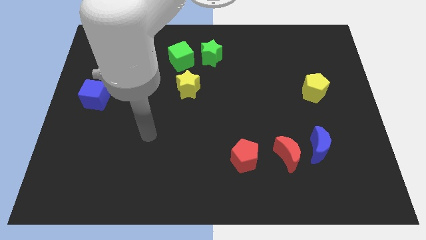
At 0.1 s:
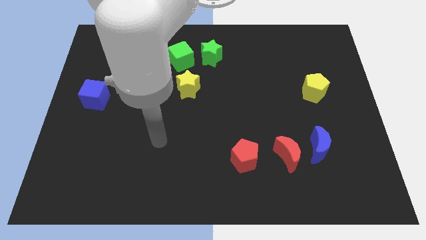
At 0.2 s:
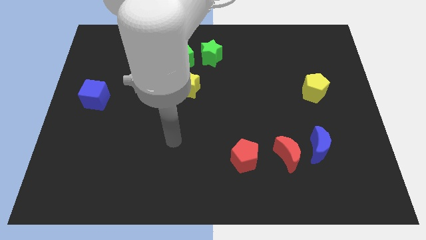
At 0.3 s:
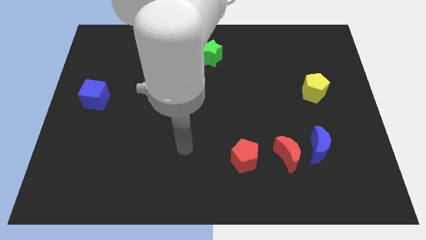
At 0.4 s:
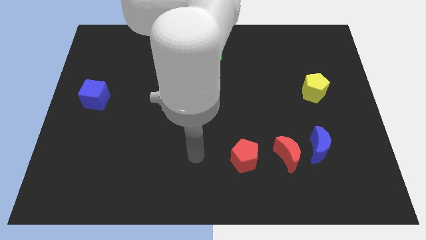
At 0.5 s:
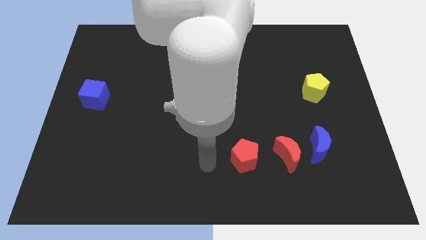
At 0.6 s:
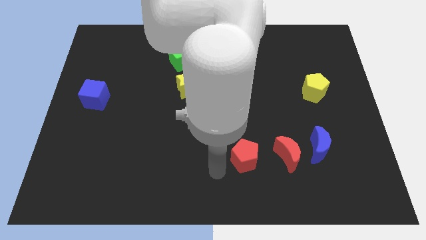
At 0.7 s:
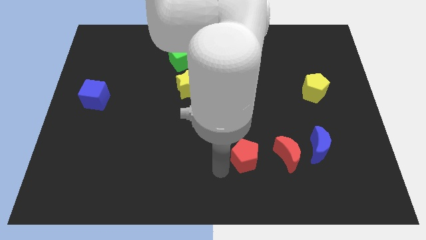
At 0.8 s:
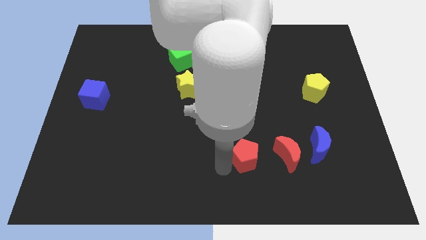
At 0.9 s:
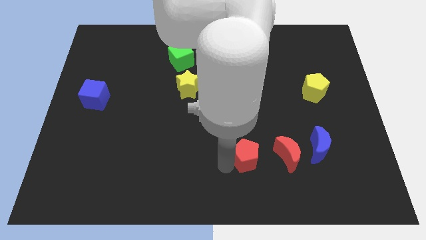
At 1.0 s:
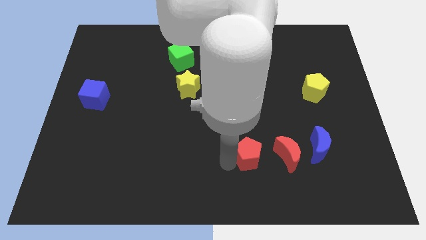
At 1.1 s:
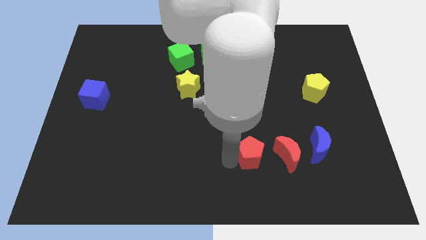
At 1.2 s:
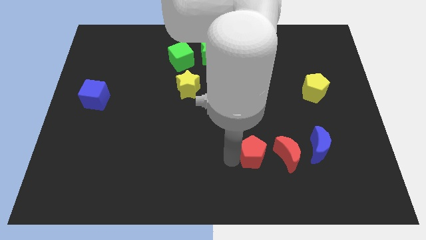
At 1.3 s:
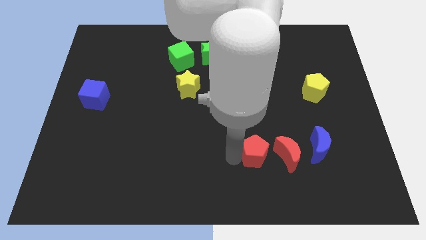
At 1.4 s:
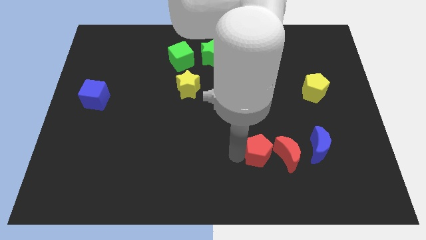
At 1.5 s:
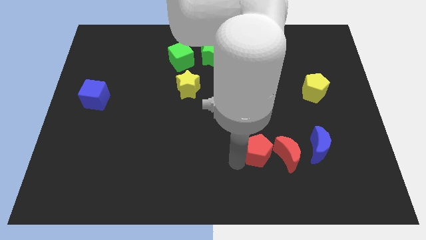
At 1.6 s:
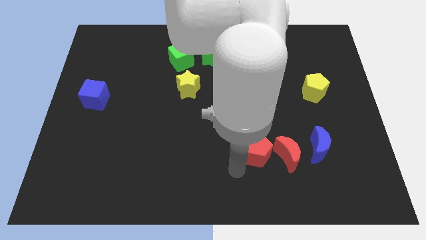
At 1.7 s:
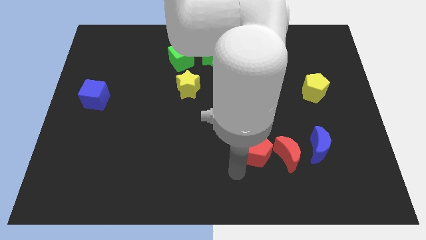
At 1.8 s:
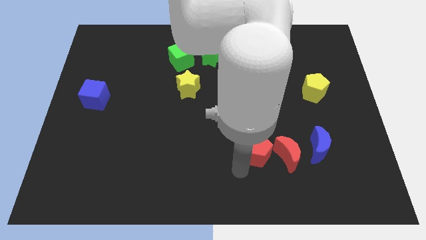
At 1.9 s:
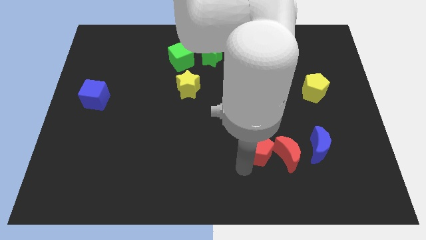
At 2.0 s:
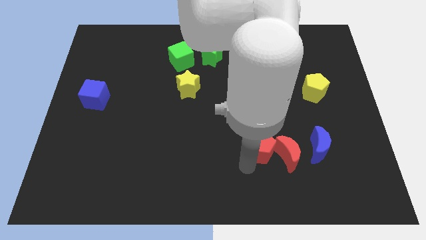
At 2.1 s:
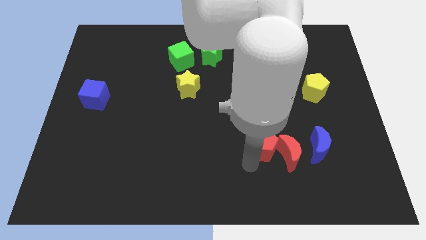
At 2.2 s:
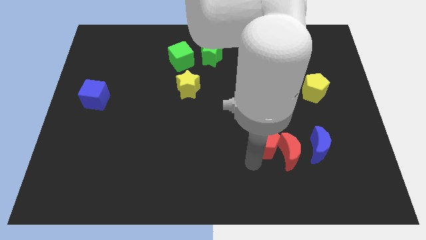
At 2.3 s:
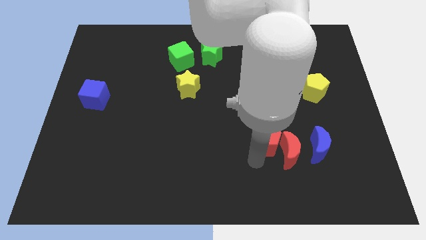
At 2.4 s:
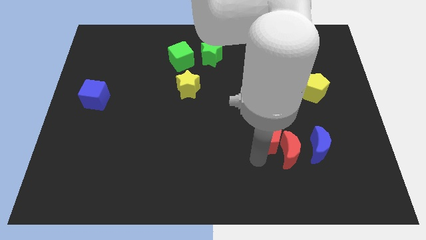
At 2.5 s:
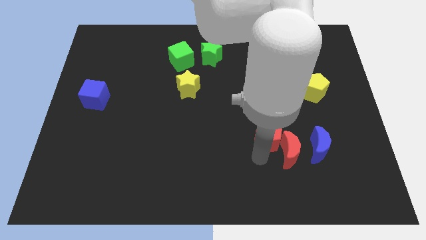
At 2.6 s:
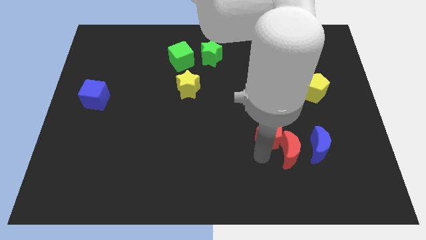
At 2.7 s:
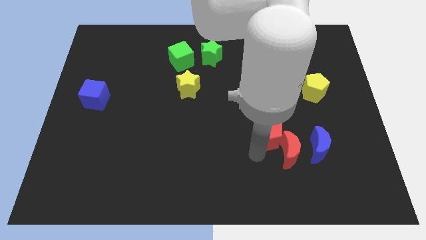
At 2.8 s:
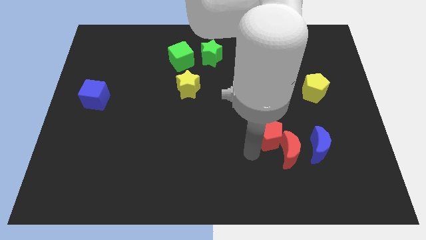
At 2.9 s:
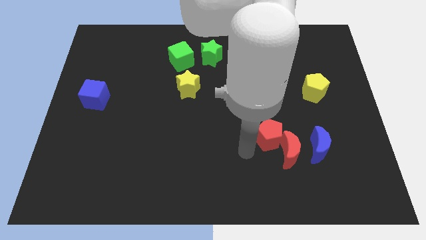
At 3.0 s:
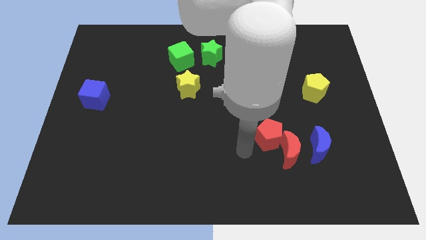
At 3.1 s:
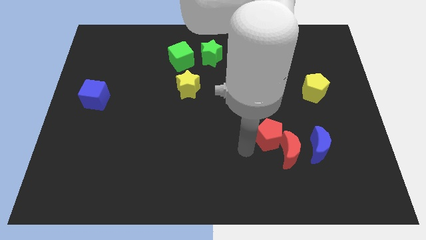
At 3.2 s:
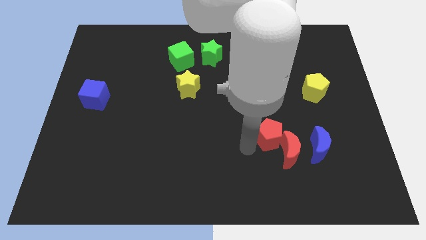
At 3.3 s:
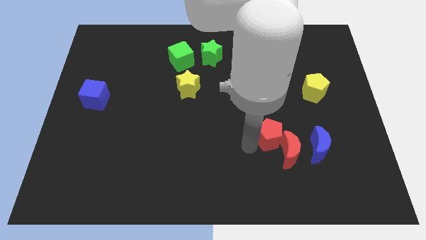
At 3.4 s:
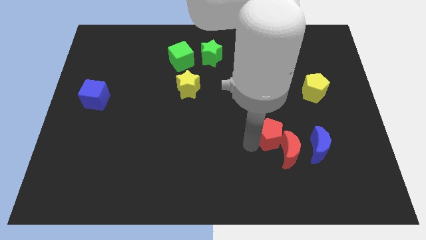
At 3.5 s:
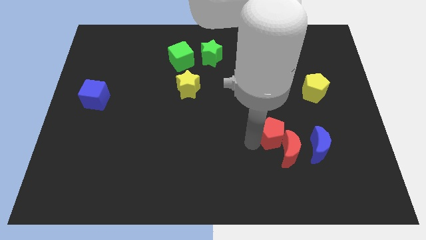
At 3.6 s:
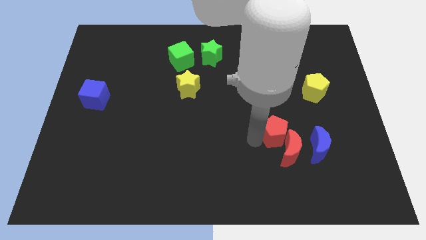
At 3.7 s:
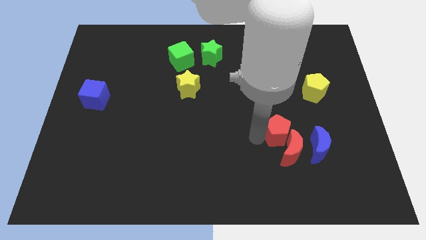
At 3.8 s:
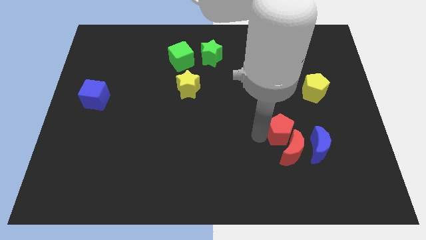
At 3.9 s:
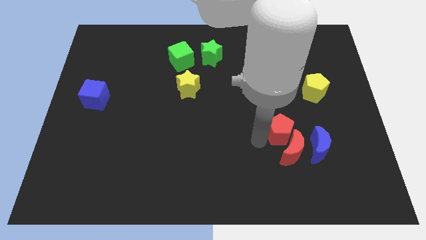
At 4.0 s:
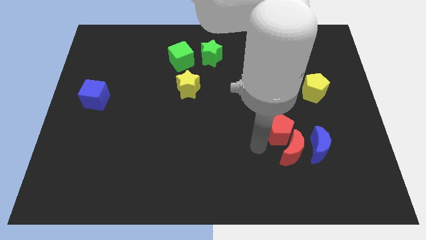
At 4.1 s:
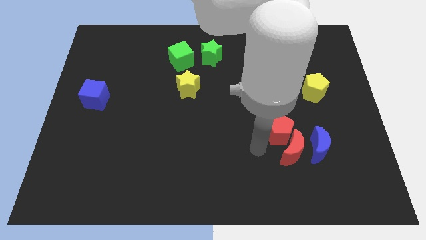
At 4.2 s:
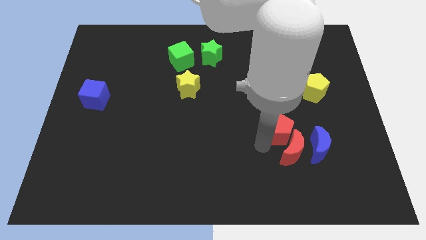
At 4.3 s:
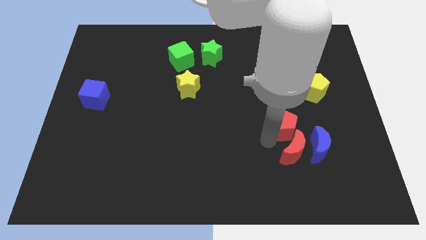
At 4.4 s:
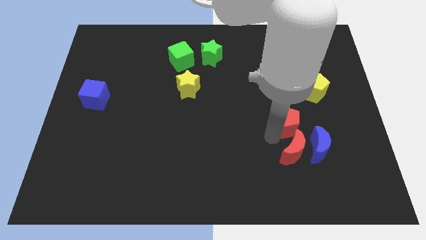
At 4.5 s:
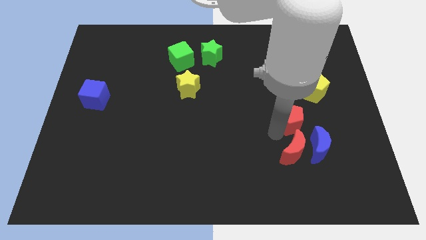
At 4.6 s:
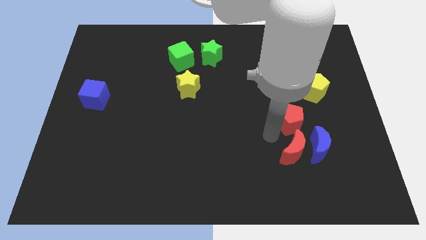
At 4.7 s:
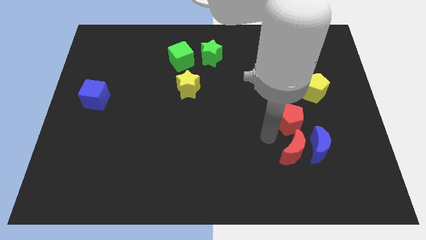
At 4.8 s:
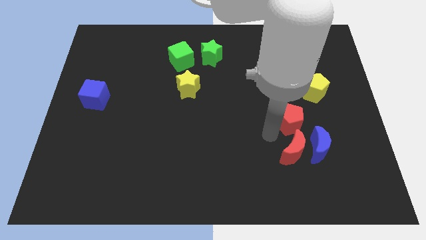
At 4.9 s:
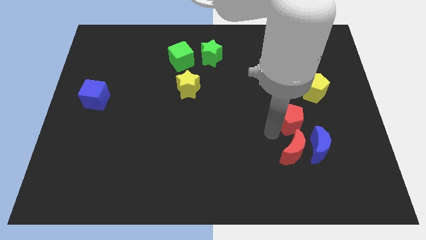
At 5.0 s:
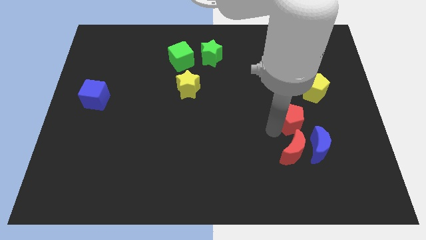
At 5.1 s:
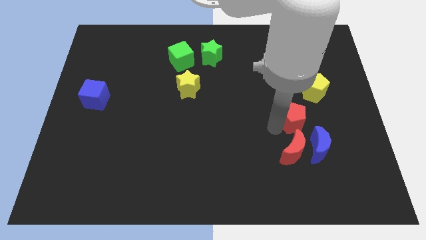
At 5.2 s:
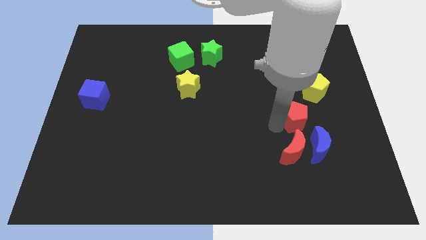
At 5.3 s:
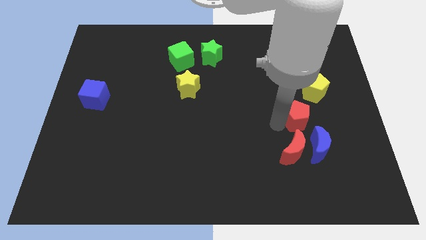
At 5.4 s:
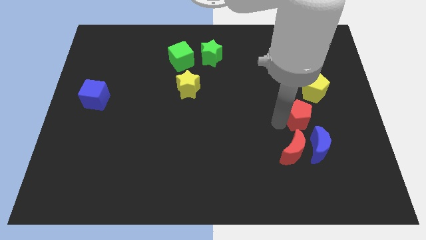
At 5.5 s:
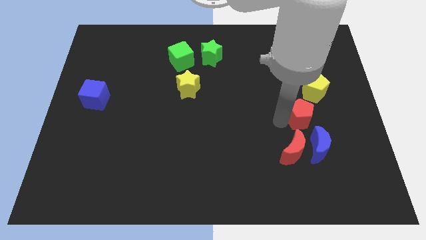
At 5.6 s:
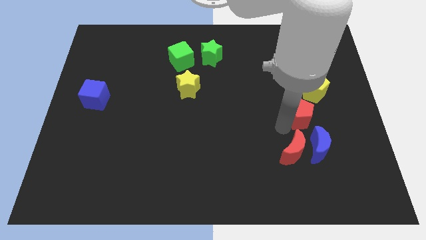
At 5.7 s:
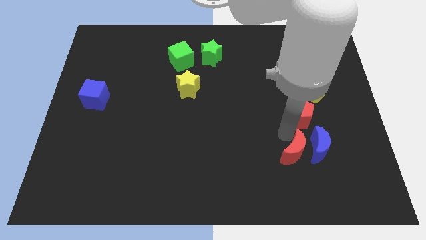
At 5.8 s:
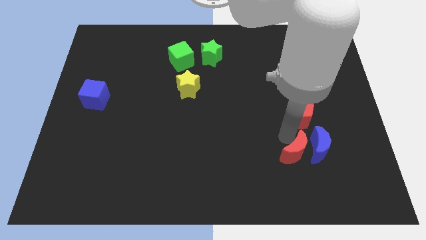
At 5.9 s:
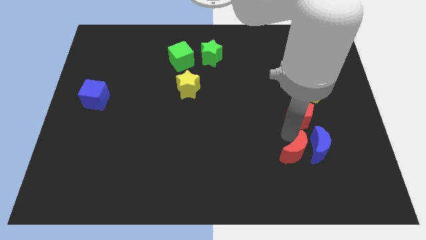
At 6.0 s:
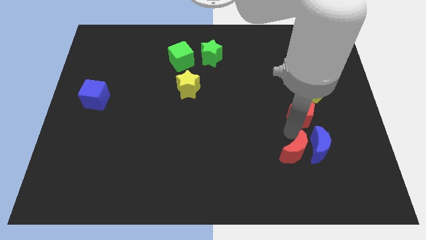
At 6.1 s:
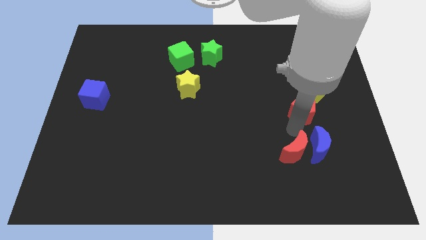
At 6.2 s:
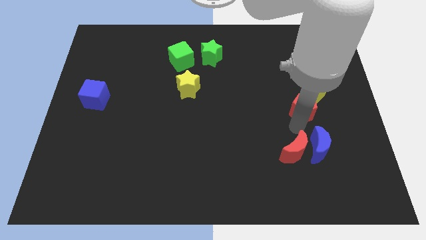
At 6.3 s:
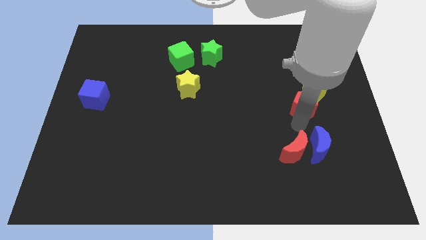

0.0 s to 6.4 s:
slide the red pentagon next to the yellow pentagon
